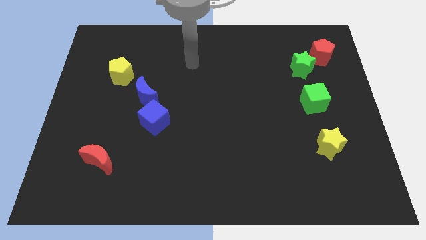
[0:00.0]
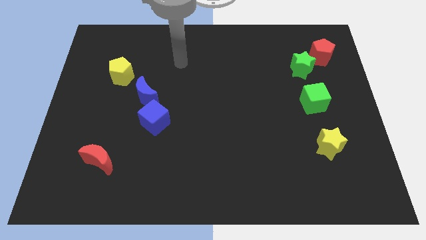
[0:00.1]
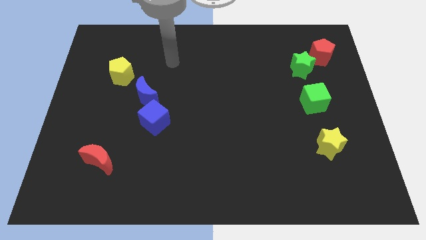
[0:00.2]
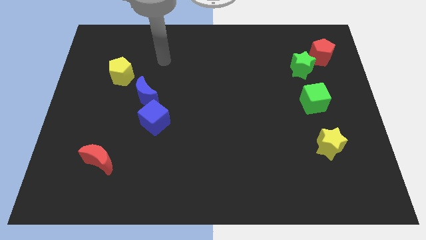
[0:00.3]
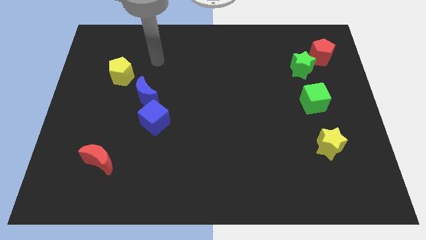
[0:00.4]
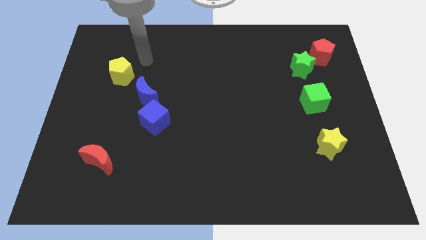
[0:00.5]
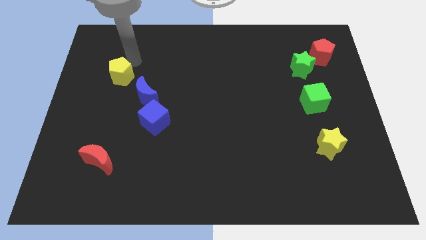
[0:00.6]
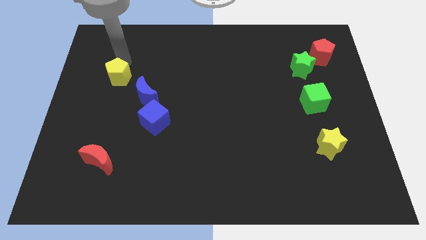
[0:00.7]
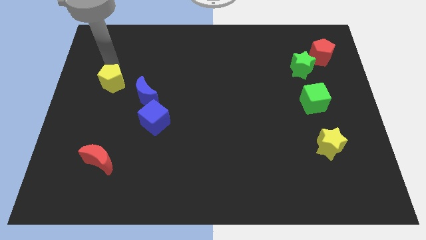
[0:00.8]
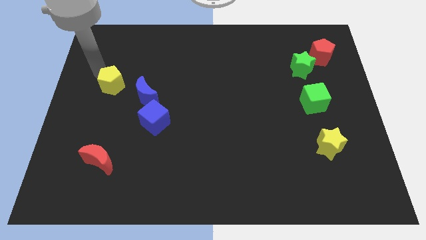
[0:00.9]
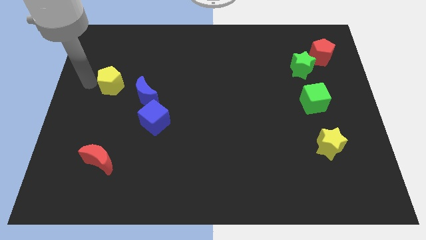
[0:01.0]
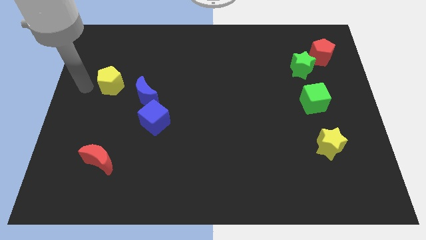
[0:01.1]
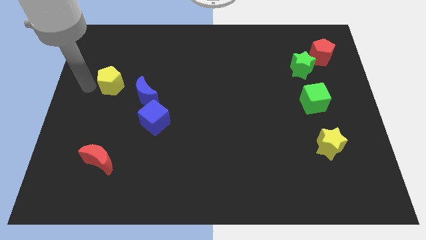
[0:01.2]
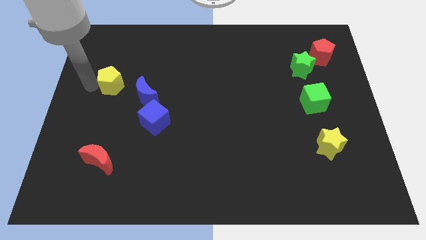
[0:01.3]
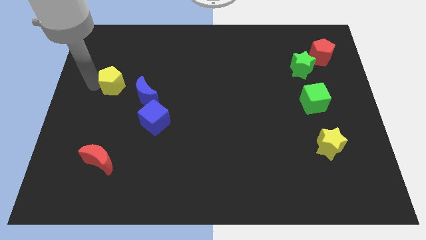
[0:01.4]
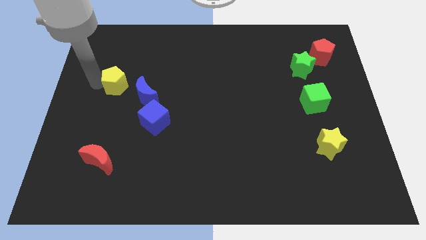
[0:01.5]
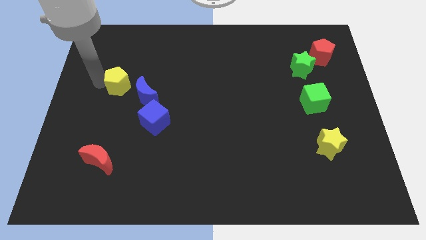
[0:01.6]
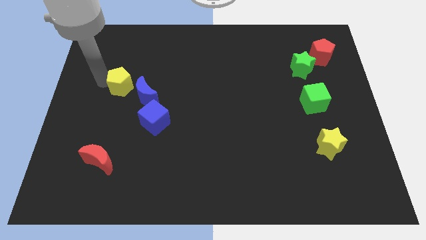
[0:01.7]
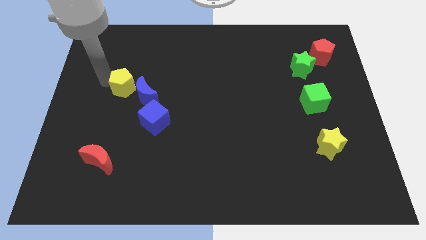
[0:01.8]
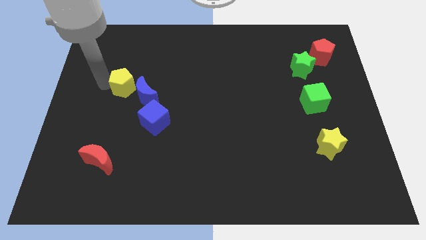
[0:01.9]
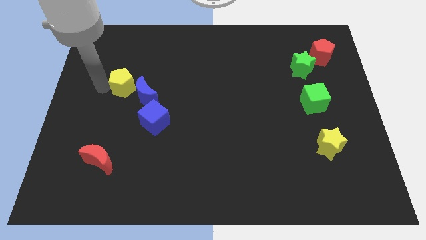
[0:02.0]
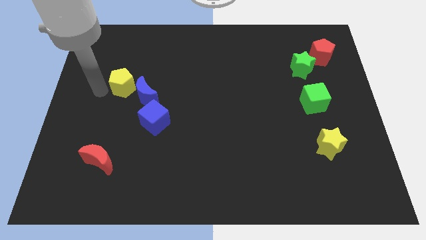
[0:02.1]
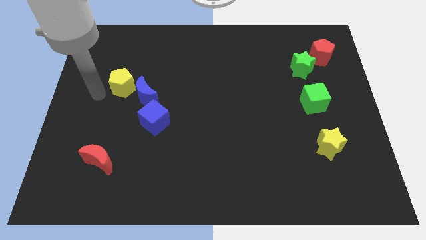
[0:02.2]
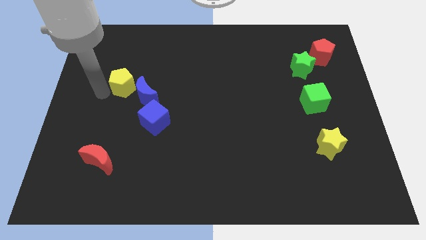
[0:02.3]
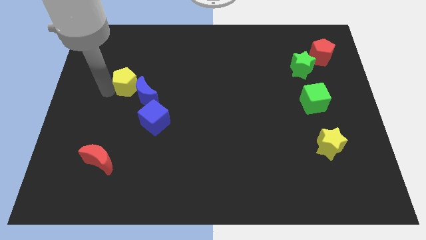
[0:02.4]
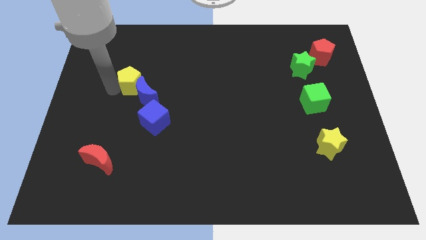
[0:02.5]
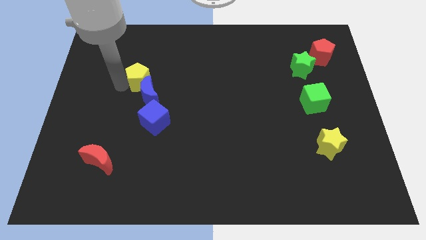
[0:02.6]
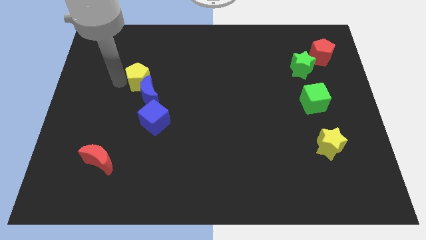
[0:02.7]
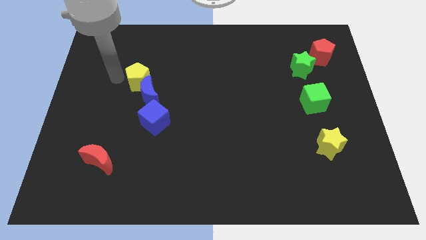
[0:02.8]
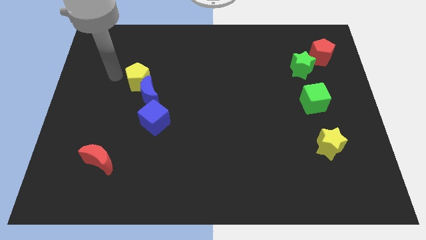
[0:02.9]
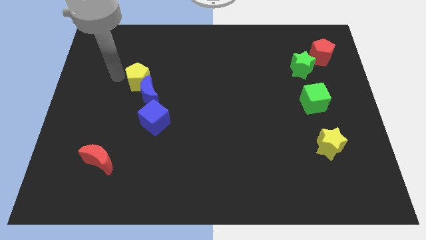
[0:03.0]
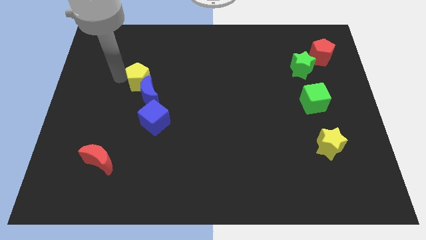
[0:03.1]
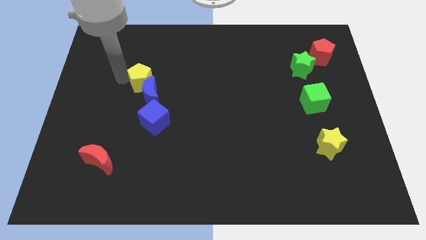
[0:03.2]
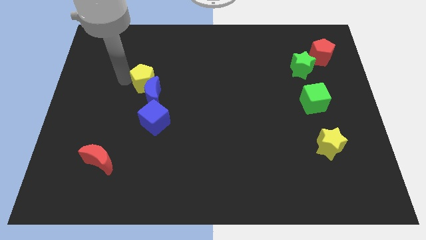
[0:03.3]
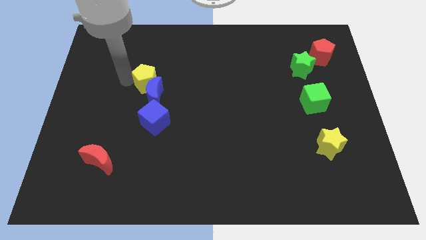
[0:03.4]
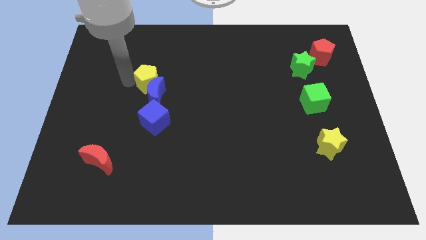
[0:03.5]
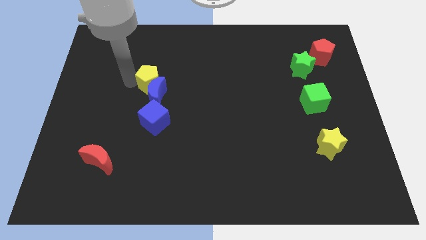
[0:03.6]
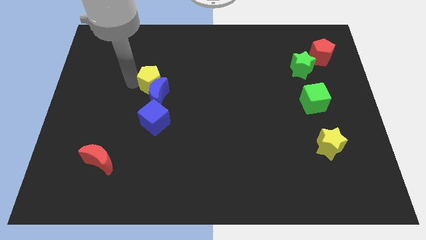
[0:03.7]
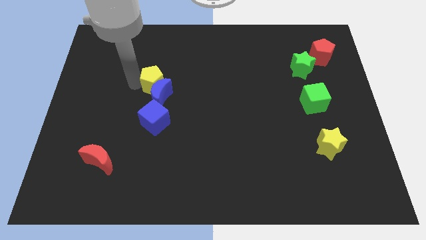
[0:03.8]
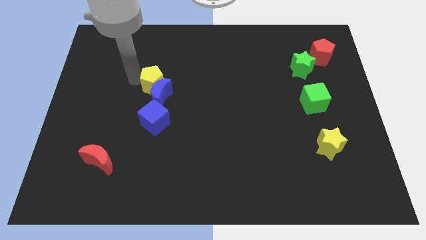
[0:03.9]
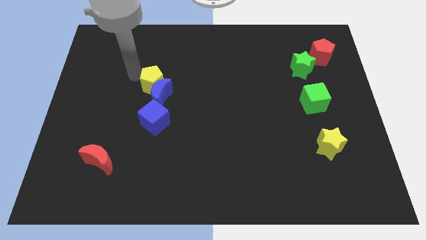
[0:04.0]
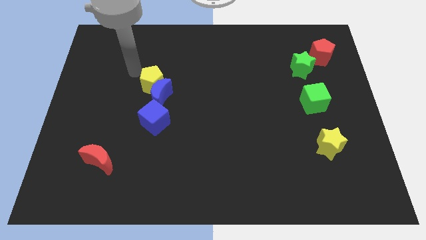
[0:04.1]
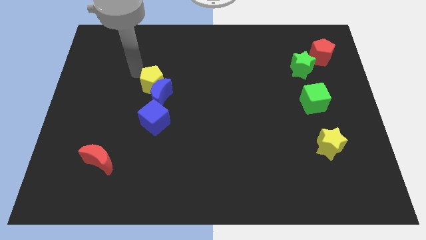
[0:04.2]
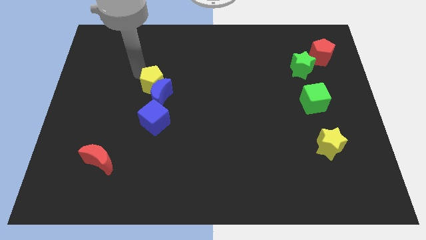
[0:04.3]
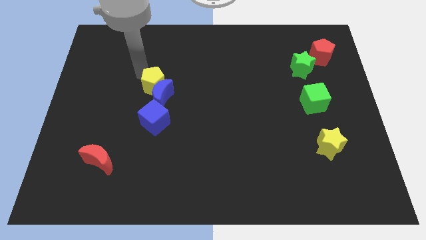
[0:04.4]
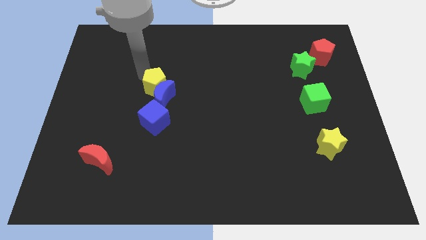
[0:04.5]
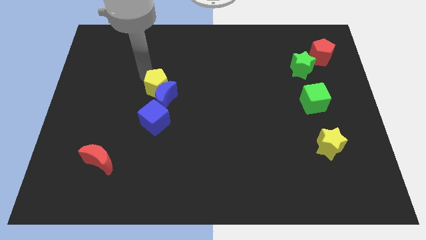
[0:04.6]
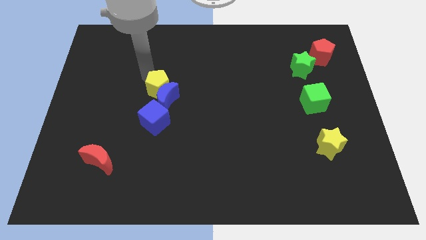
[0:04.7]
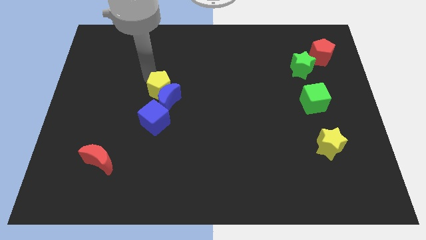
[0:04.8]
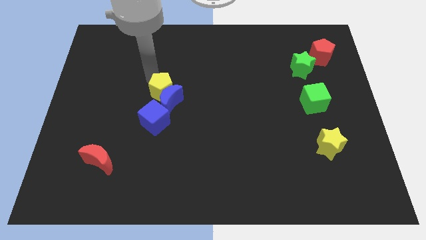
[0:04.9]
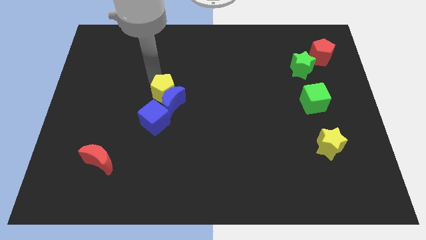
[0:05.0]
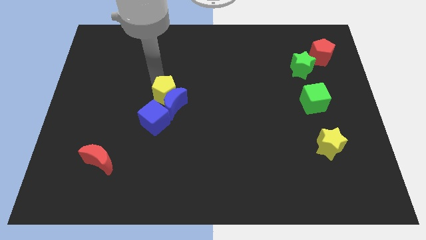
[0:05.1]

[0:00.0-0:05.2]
move the yellow pentagon to the top right of the blue cube

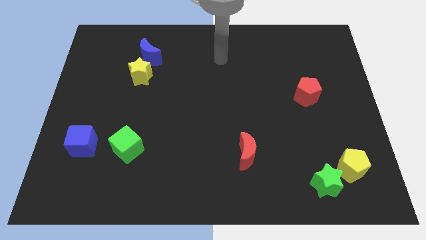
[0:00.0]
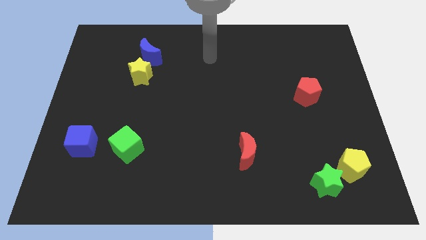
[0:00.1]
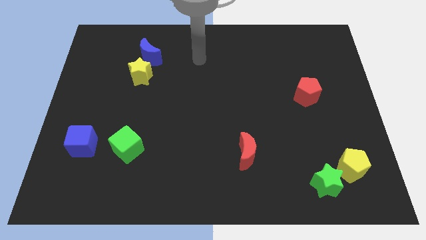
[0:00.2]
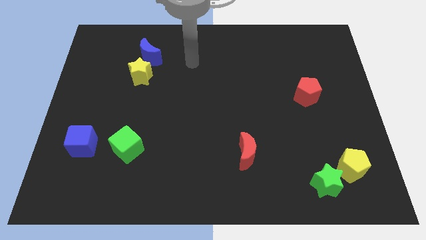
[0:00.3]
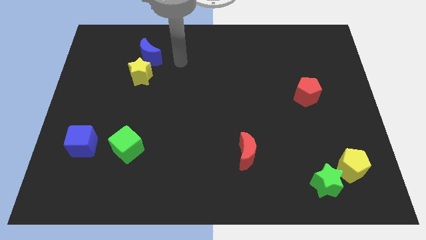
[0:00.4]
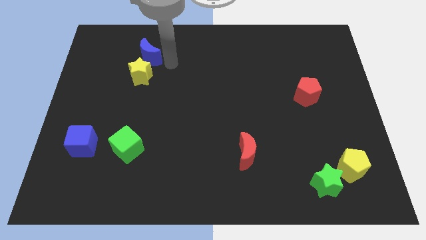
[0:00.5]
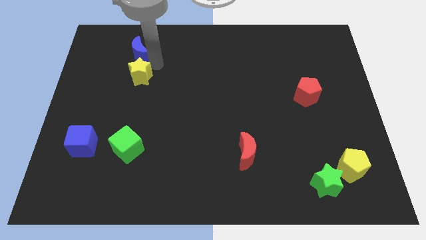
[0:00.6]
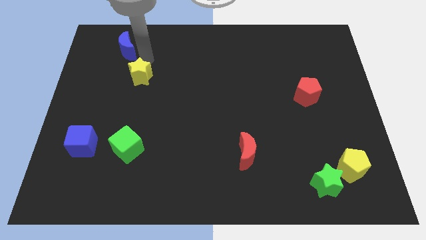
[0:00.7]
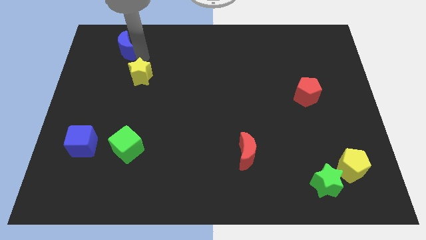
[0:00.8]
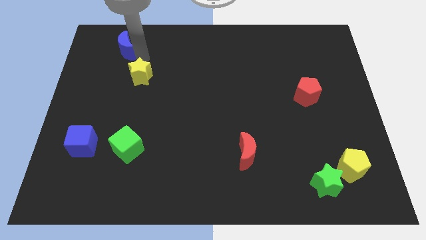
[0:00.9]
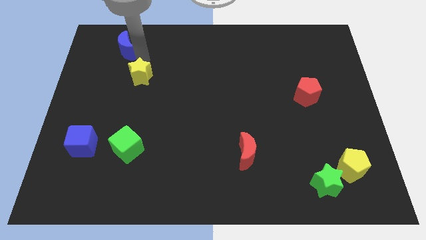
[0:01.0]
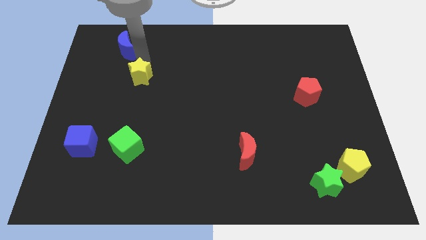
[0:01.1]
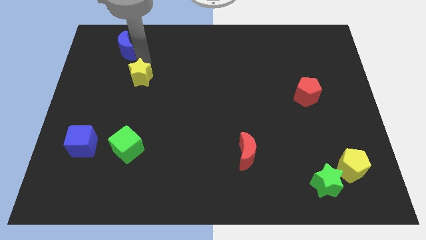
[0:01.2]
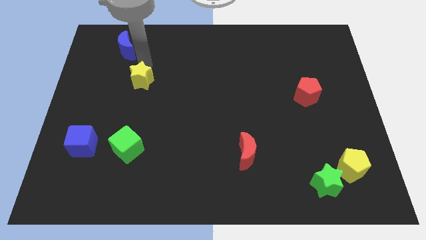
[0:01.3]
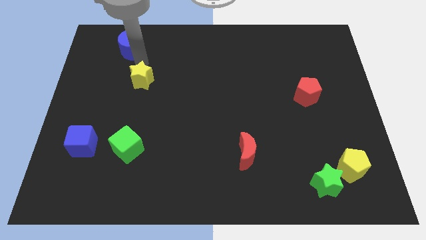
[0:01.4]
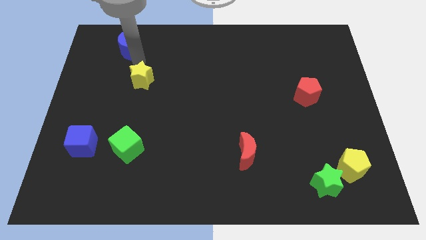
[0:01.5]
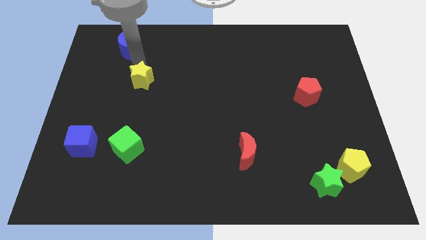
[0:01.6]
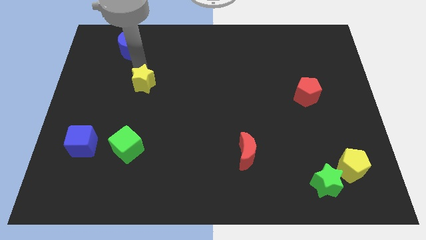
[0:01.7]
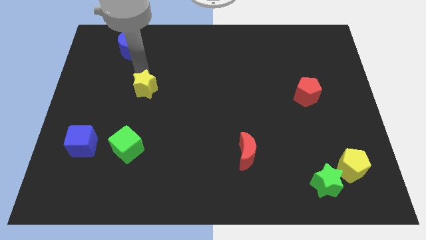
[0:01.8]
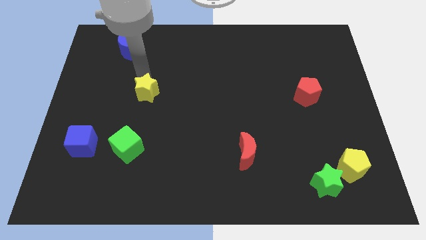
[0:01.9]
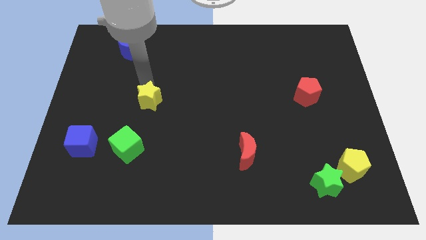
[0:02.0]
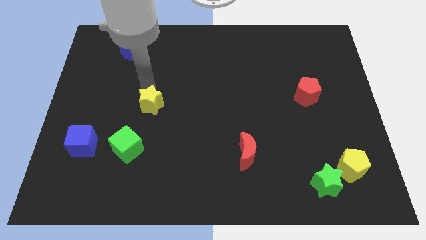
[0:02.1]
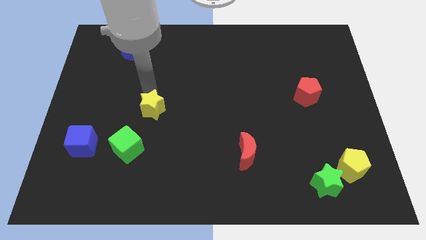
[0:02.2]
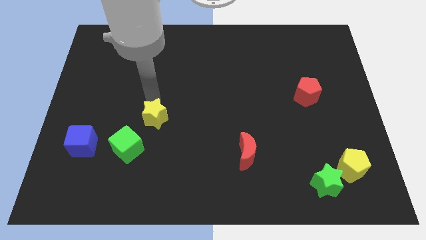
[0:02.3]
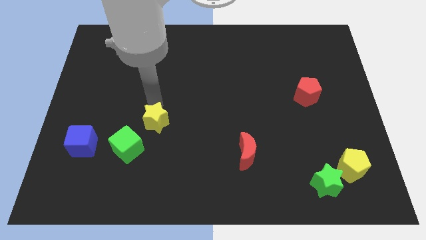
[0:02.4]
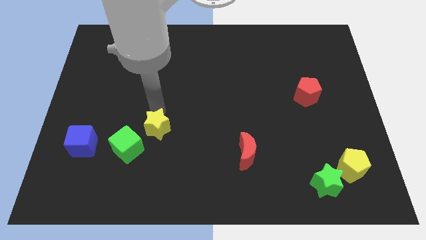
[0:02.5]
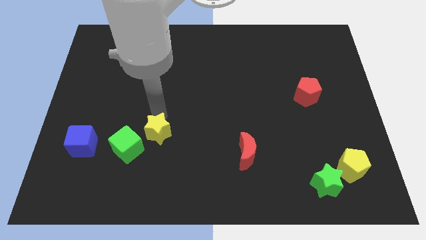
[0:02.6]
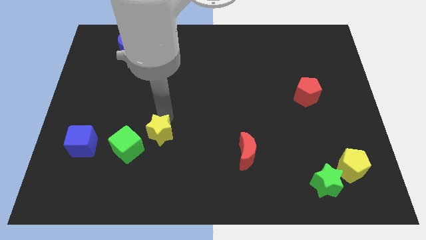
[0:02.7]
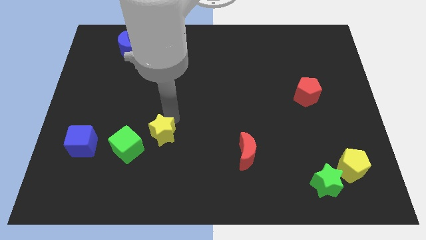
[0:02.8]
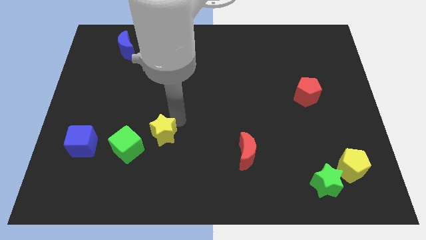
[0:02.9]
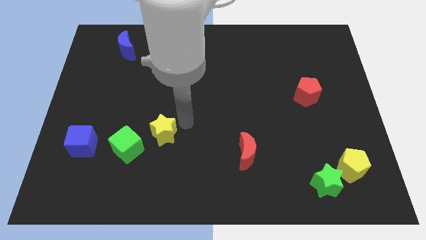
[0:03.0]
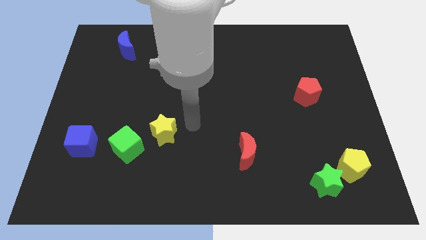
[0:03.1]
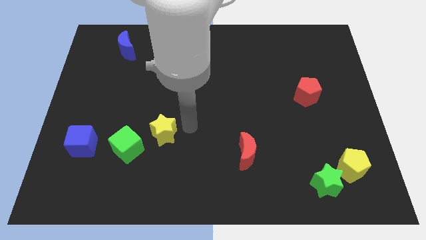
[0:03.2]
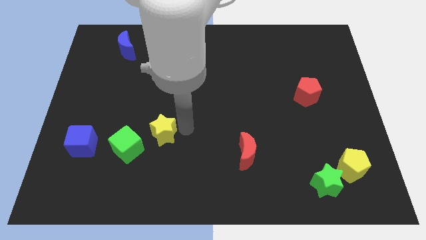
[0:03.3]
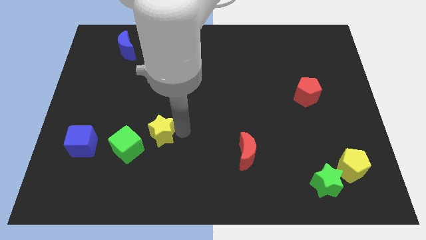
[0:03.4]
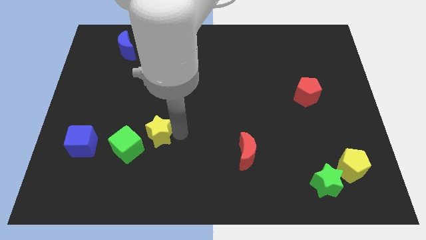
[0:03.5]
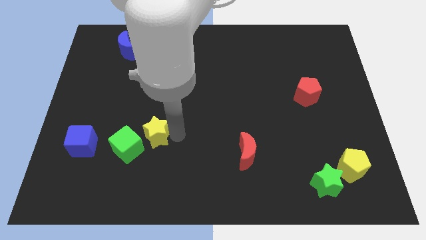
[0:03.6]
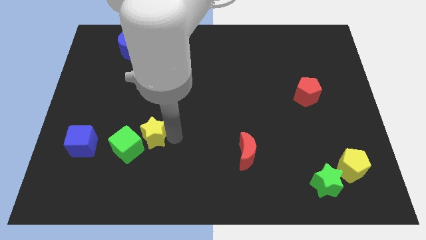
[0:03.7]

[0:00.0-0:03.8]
slide the yellow star just right of the blue cube
